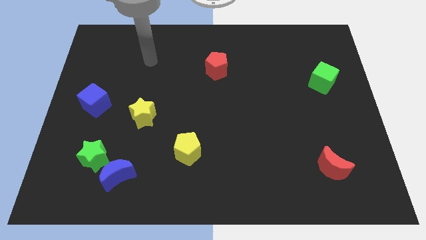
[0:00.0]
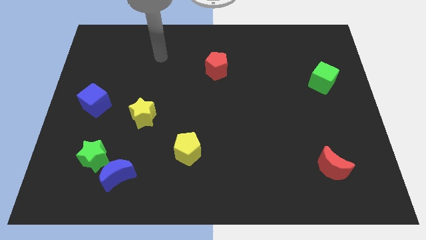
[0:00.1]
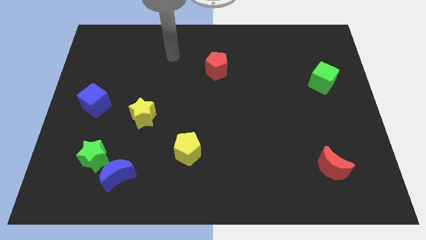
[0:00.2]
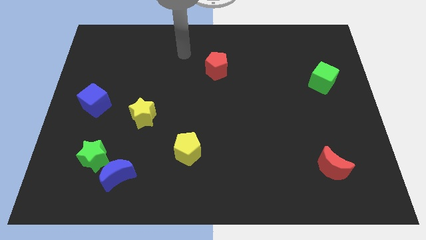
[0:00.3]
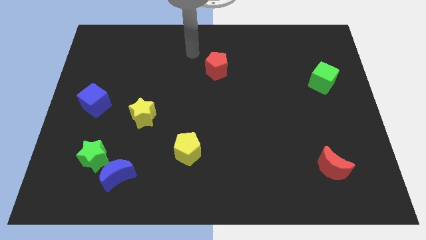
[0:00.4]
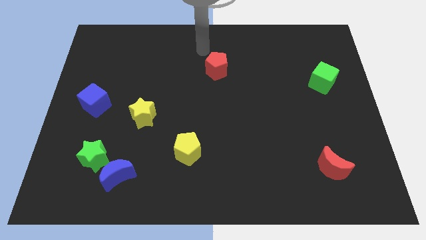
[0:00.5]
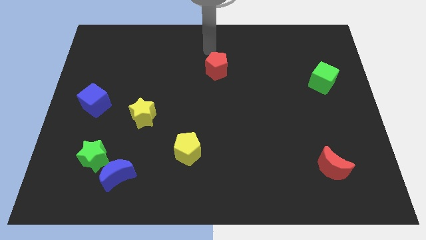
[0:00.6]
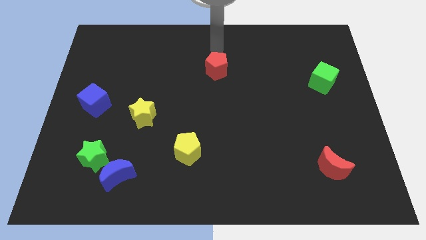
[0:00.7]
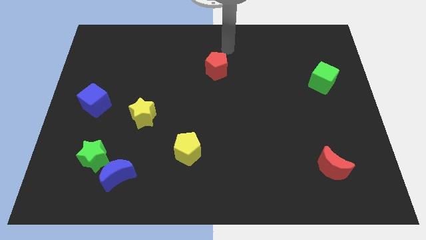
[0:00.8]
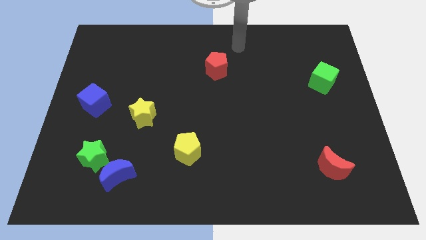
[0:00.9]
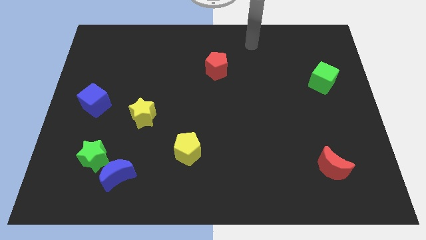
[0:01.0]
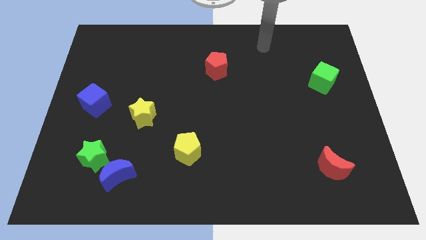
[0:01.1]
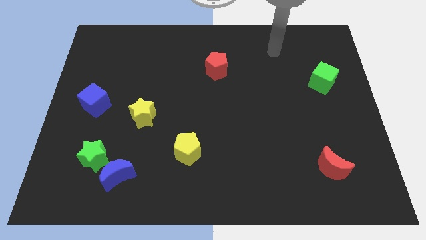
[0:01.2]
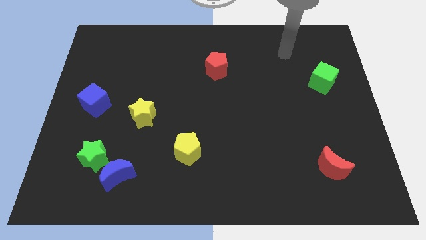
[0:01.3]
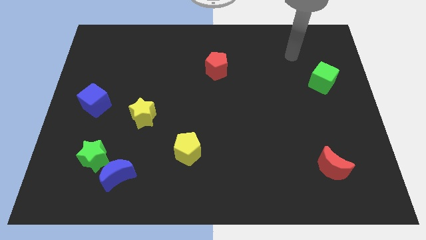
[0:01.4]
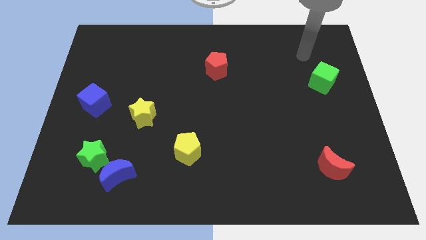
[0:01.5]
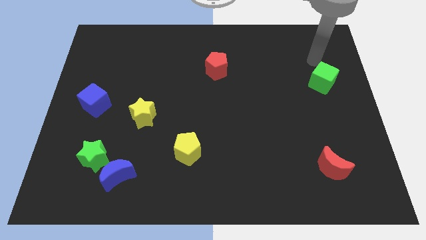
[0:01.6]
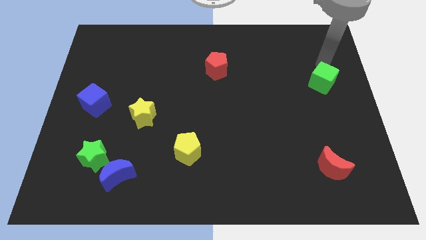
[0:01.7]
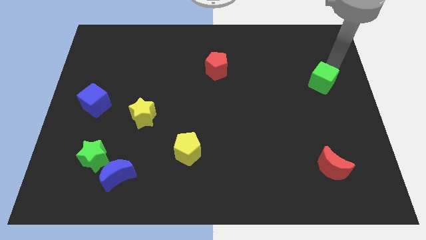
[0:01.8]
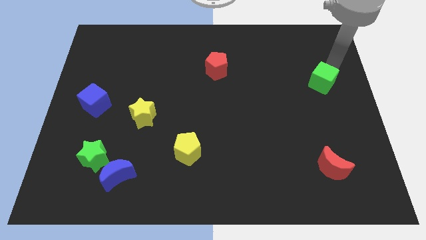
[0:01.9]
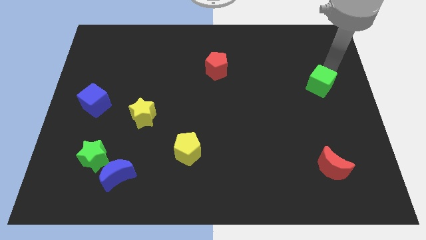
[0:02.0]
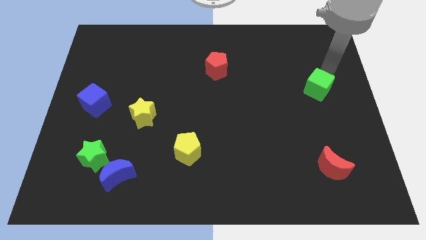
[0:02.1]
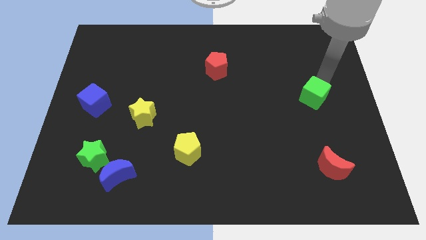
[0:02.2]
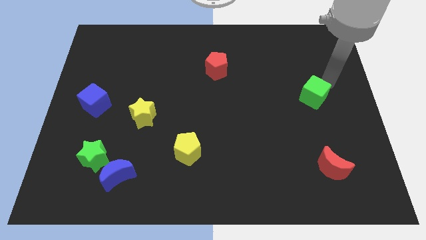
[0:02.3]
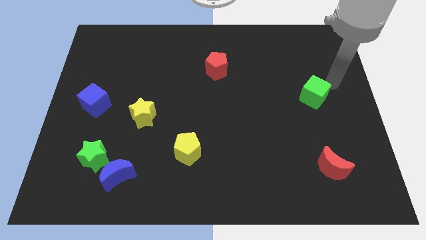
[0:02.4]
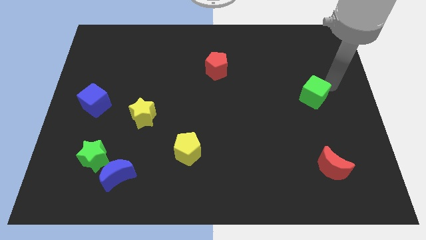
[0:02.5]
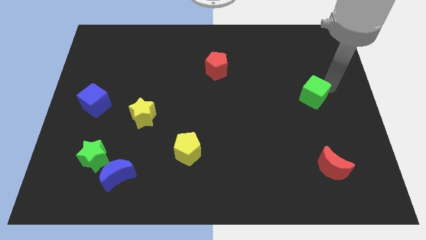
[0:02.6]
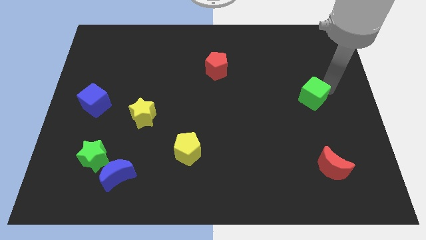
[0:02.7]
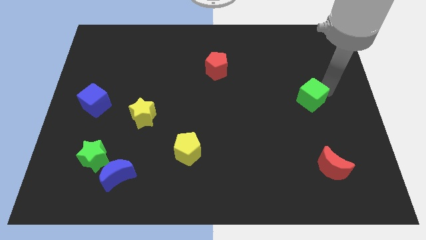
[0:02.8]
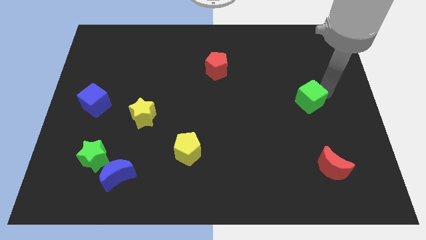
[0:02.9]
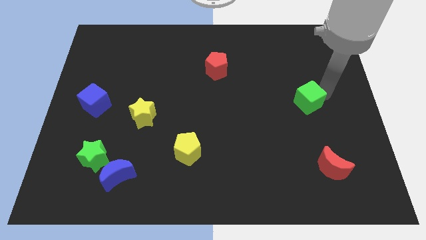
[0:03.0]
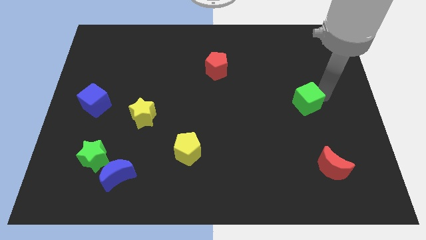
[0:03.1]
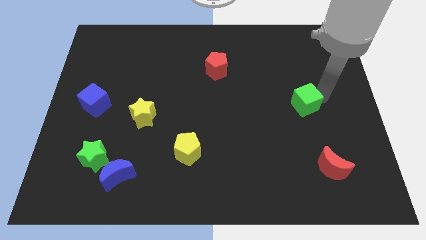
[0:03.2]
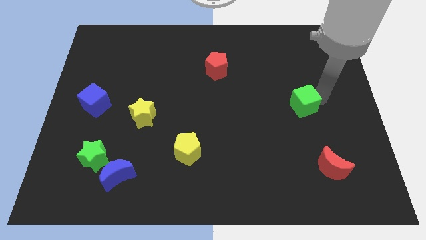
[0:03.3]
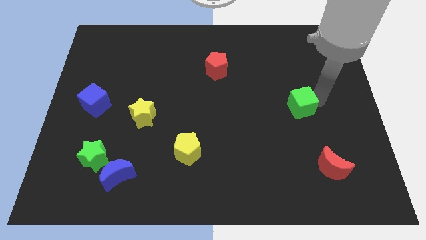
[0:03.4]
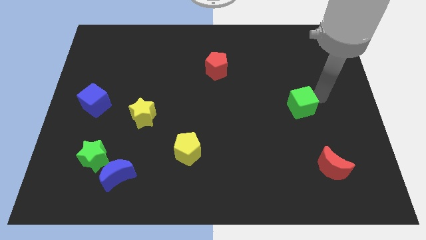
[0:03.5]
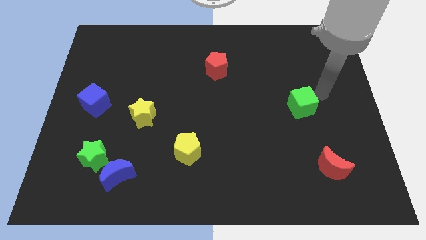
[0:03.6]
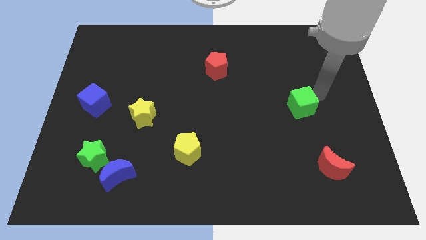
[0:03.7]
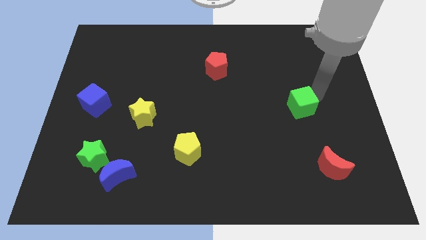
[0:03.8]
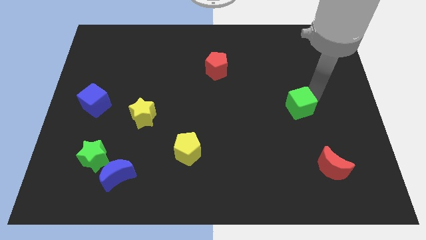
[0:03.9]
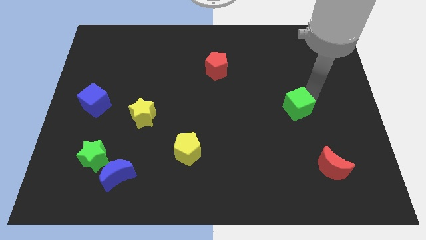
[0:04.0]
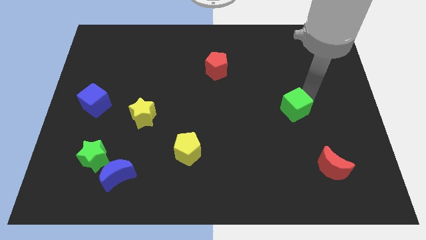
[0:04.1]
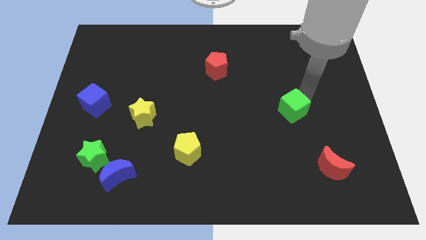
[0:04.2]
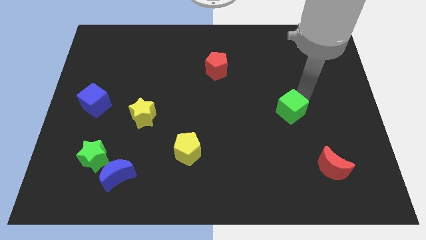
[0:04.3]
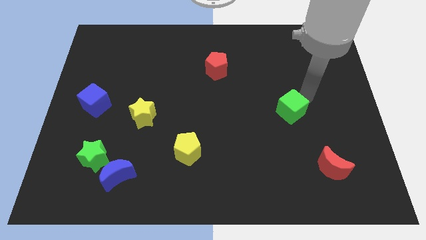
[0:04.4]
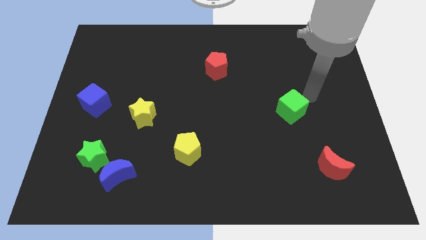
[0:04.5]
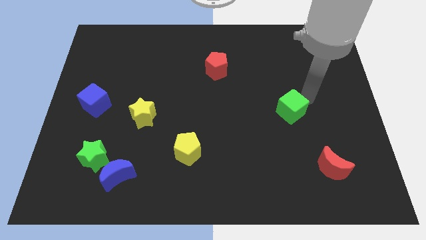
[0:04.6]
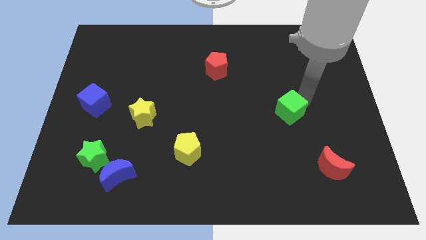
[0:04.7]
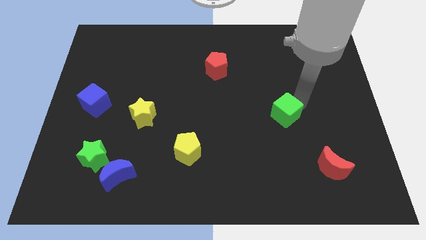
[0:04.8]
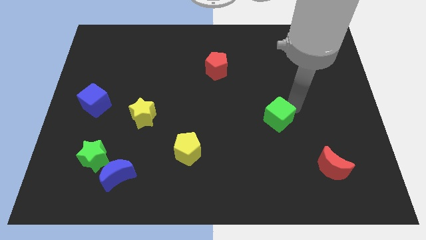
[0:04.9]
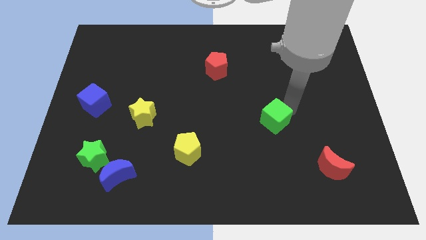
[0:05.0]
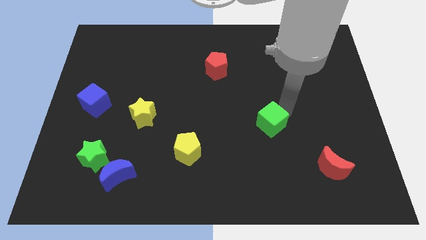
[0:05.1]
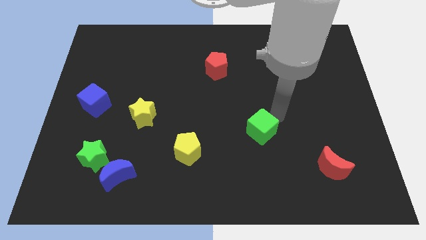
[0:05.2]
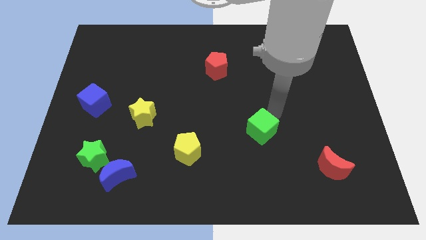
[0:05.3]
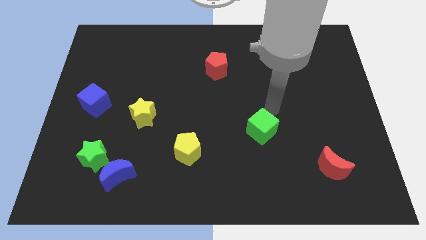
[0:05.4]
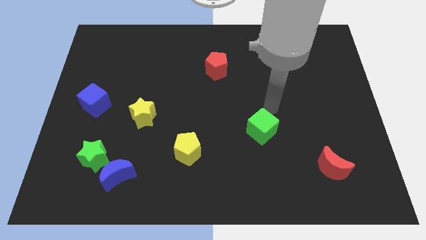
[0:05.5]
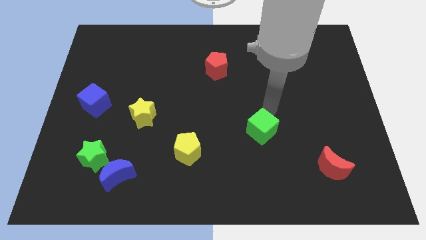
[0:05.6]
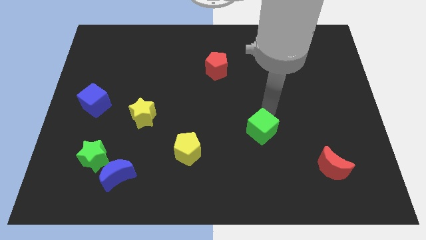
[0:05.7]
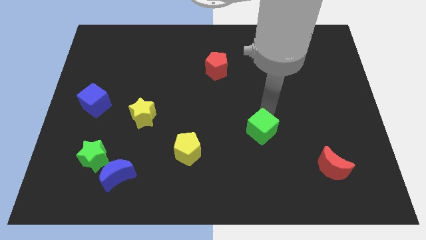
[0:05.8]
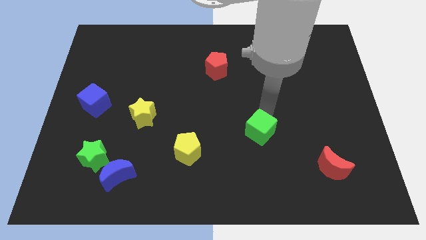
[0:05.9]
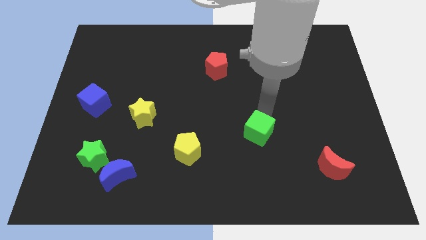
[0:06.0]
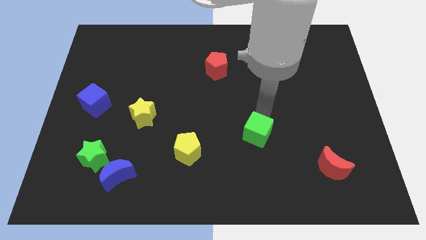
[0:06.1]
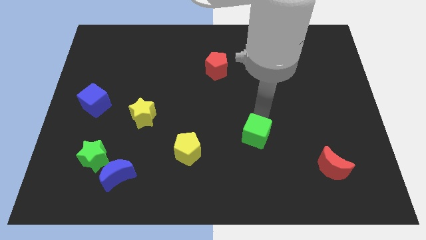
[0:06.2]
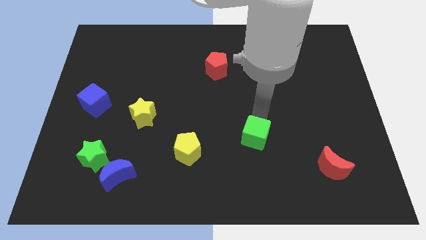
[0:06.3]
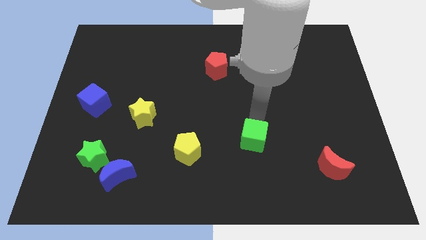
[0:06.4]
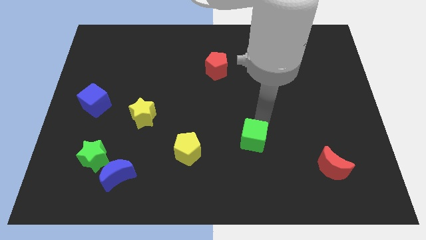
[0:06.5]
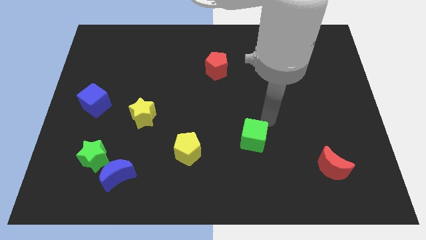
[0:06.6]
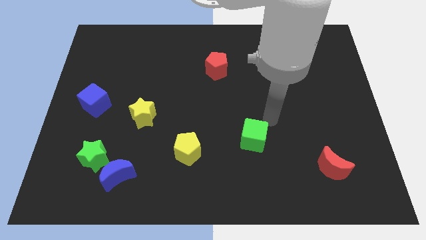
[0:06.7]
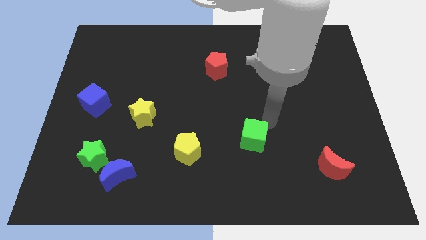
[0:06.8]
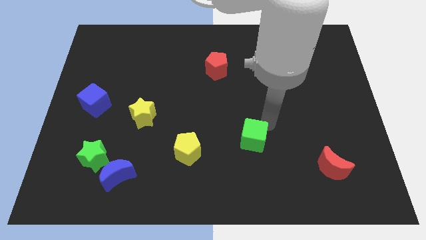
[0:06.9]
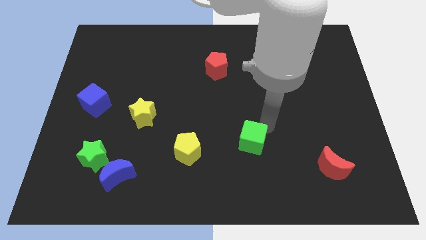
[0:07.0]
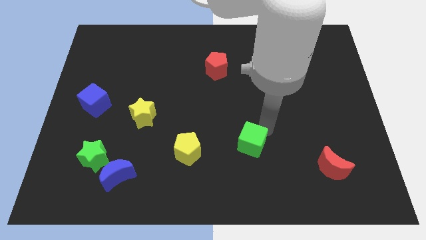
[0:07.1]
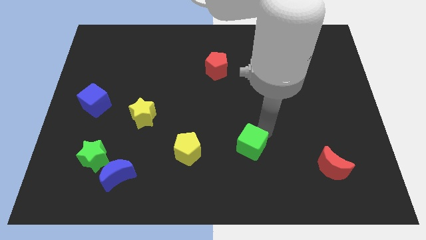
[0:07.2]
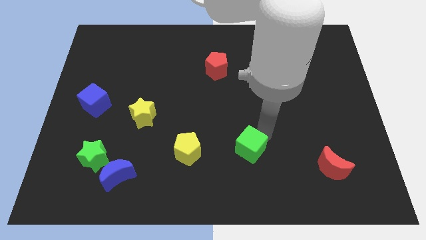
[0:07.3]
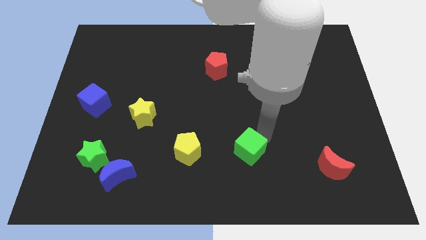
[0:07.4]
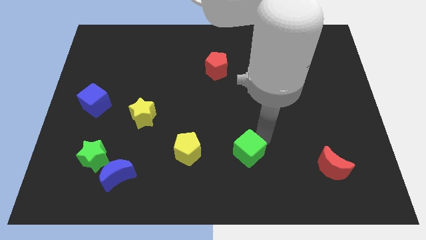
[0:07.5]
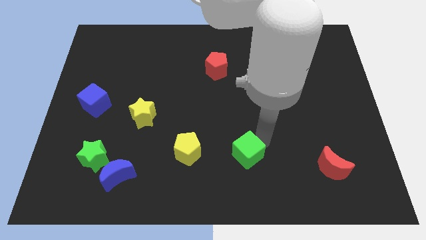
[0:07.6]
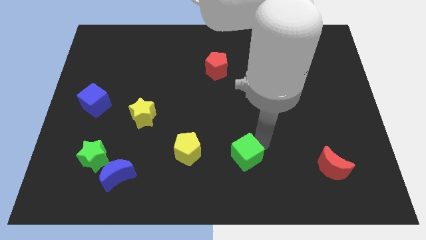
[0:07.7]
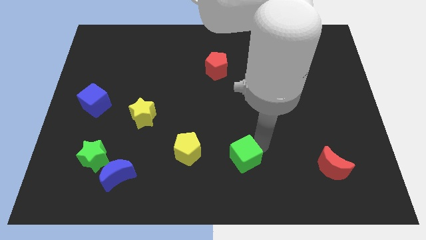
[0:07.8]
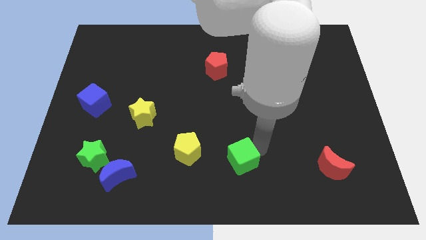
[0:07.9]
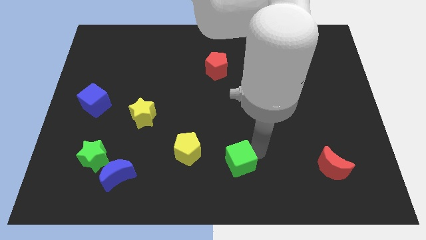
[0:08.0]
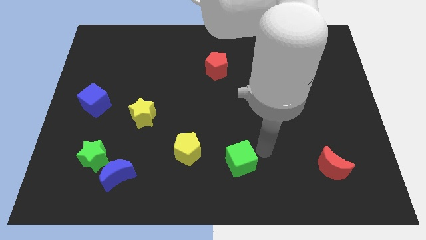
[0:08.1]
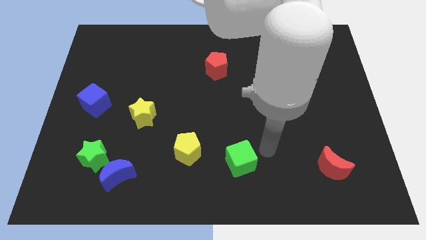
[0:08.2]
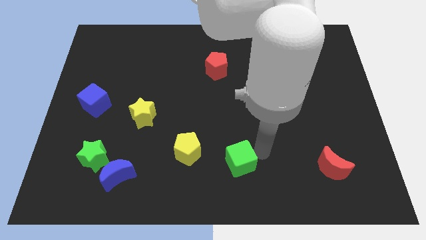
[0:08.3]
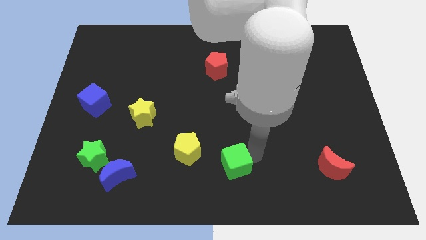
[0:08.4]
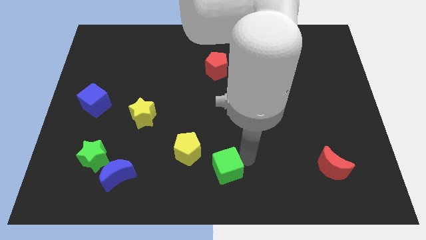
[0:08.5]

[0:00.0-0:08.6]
push the green cube diagonally down and to the right of the yellow pentagon
